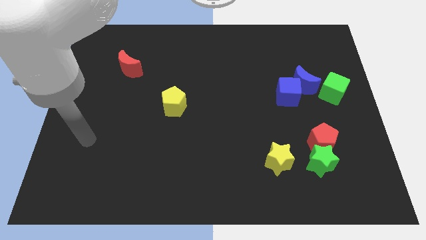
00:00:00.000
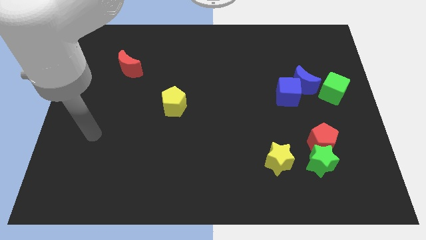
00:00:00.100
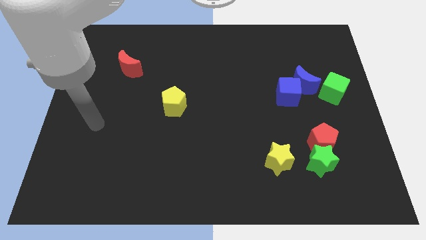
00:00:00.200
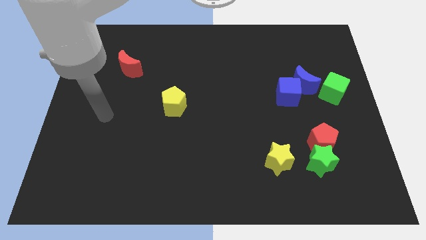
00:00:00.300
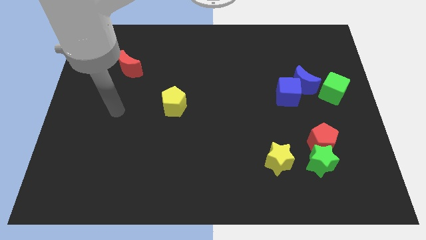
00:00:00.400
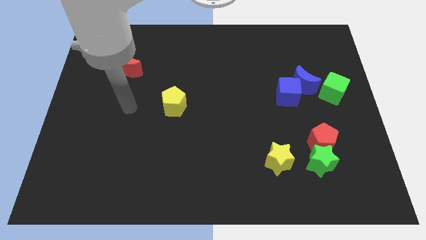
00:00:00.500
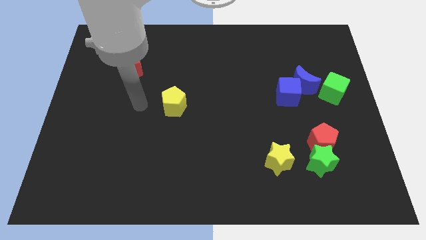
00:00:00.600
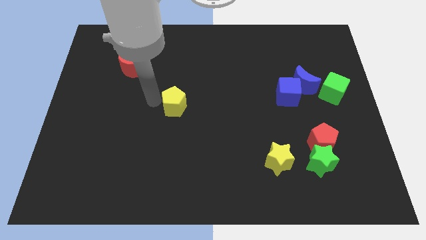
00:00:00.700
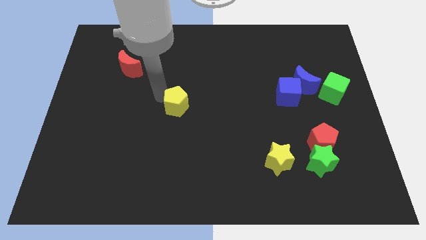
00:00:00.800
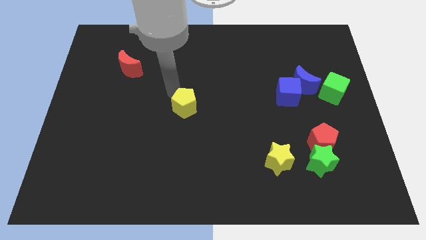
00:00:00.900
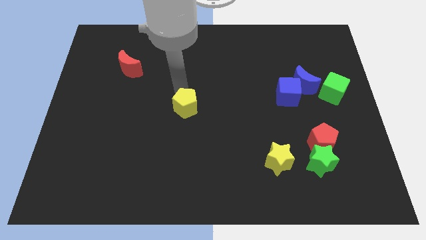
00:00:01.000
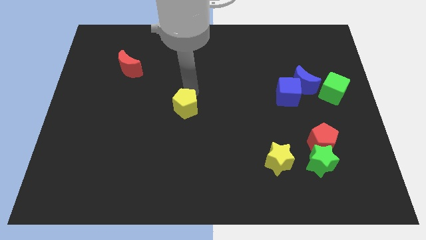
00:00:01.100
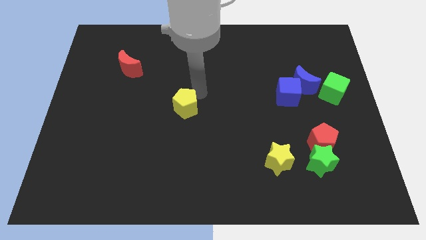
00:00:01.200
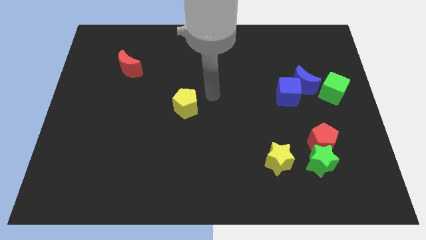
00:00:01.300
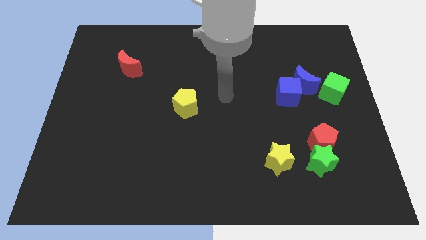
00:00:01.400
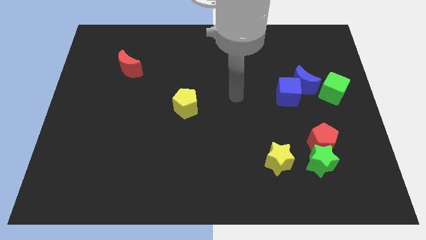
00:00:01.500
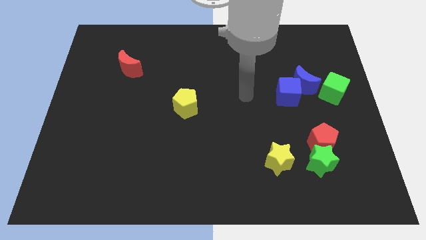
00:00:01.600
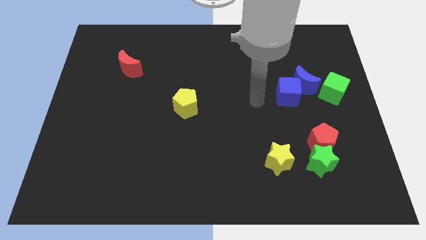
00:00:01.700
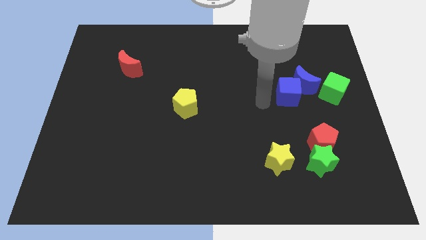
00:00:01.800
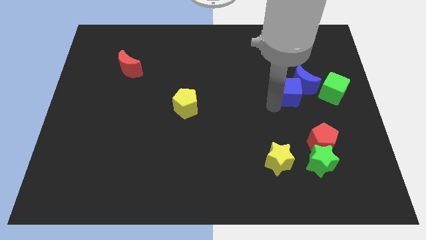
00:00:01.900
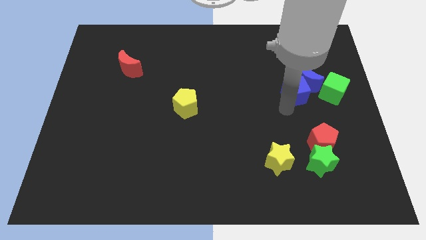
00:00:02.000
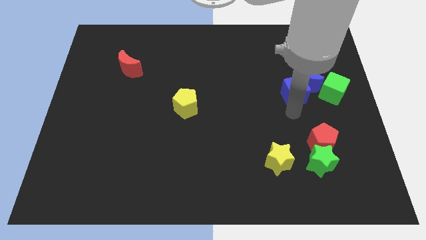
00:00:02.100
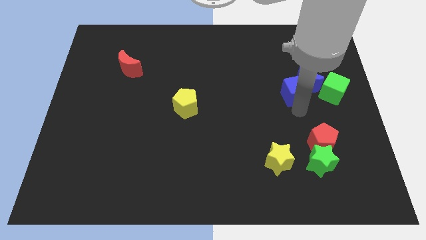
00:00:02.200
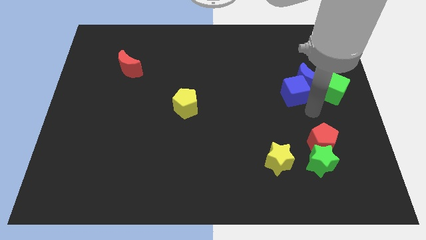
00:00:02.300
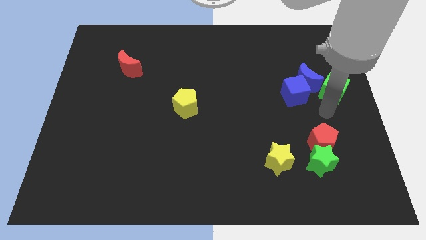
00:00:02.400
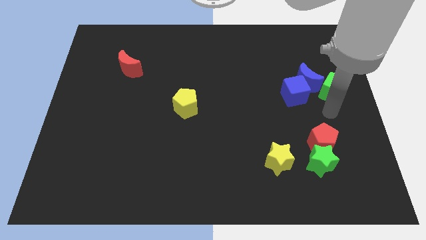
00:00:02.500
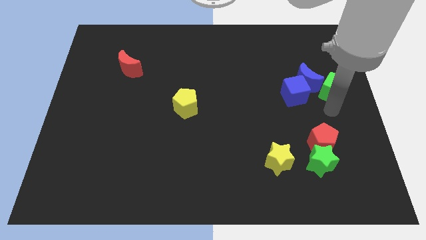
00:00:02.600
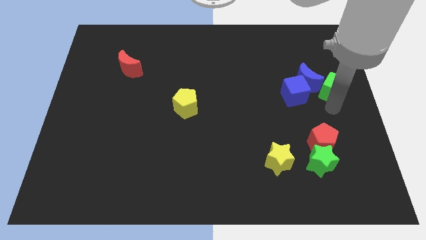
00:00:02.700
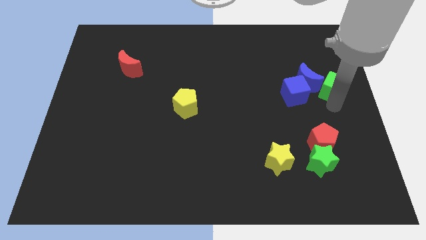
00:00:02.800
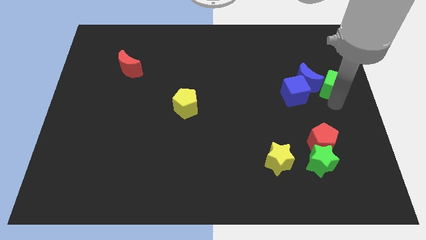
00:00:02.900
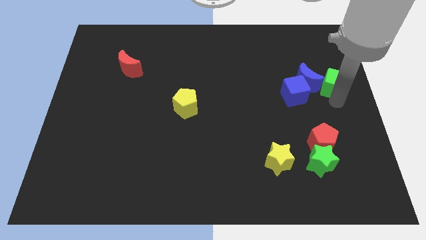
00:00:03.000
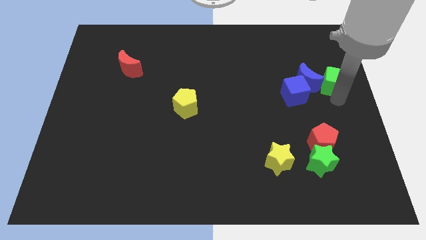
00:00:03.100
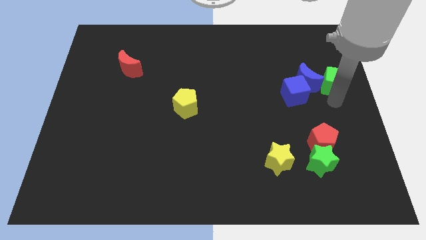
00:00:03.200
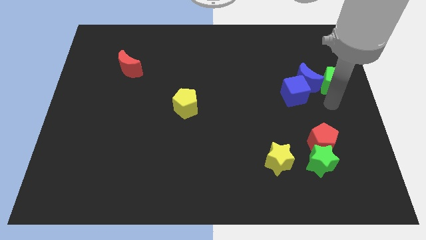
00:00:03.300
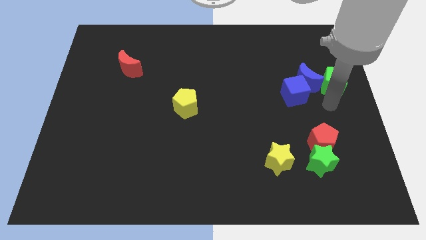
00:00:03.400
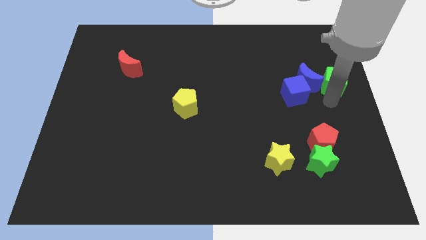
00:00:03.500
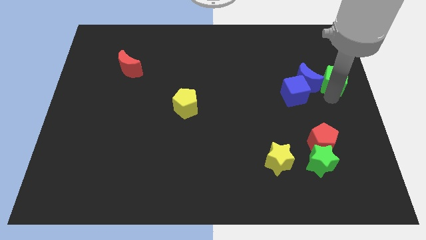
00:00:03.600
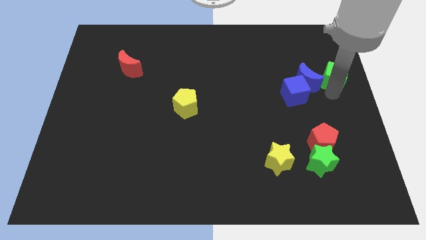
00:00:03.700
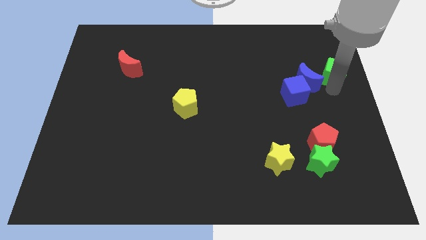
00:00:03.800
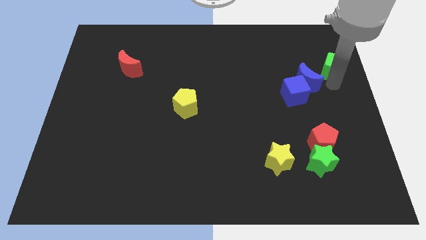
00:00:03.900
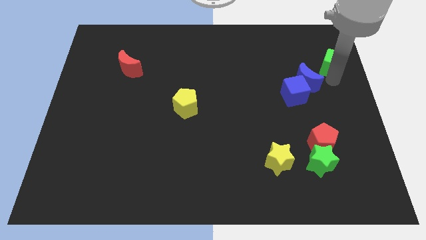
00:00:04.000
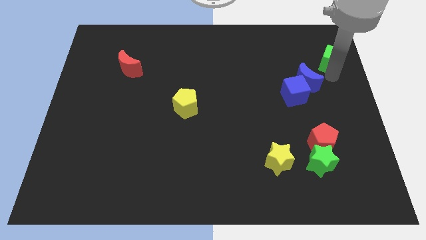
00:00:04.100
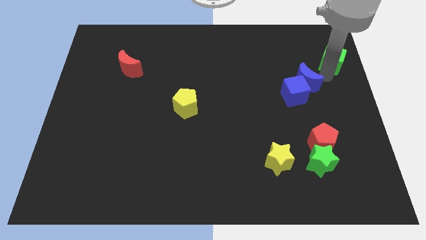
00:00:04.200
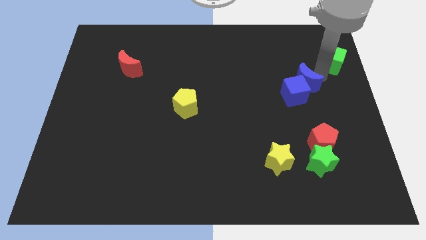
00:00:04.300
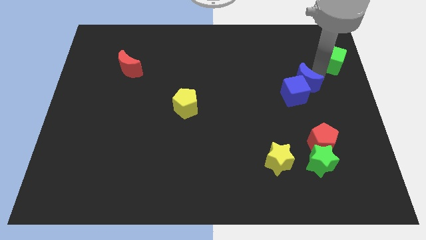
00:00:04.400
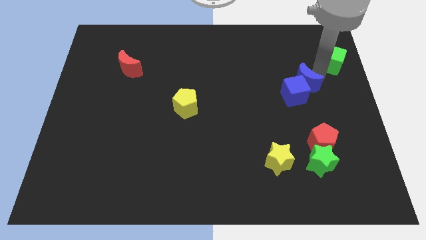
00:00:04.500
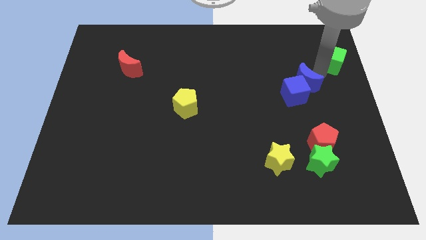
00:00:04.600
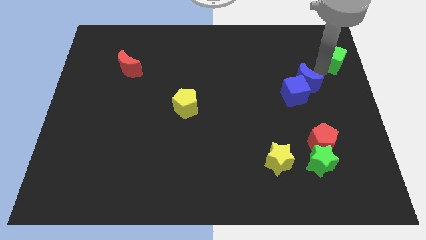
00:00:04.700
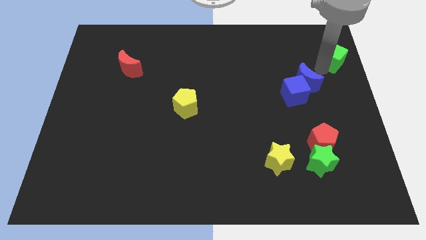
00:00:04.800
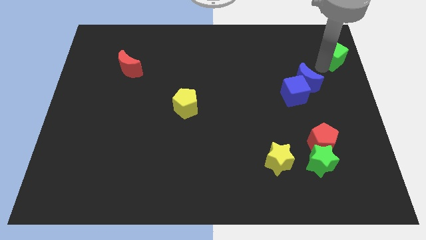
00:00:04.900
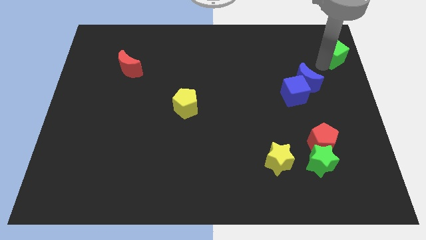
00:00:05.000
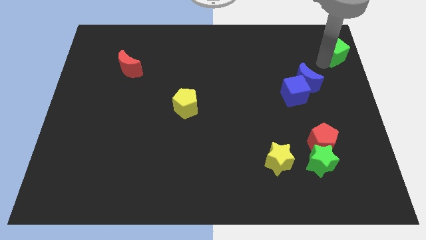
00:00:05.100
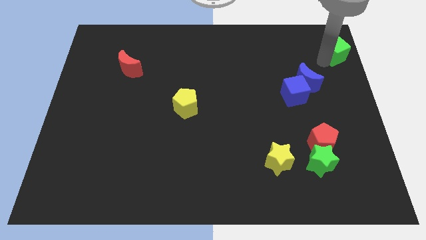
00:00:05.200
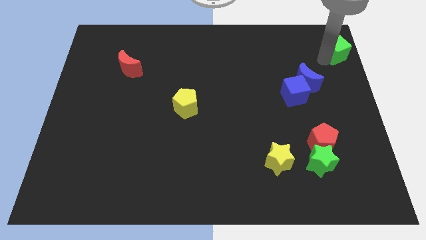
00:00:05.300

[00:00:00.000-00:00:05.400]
move the green cube to the top right corner
